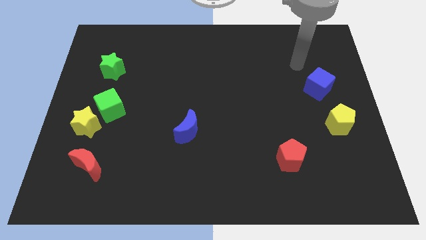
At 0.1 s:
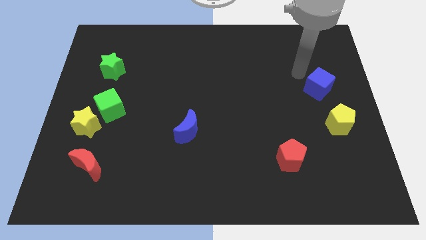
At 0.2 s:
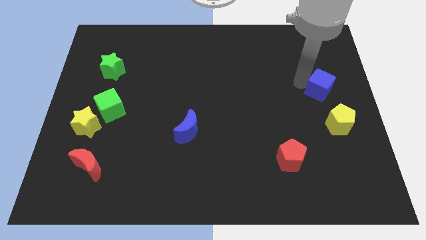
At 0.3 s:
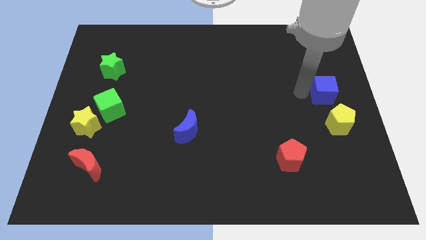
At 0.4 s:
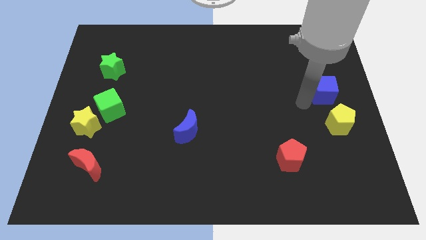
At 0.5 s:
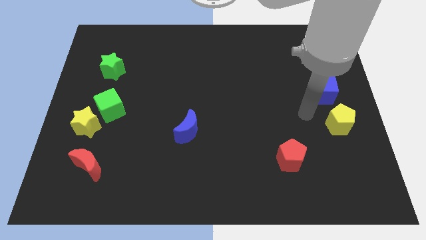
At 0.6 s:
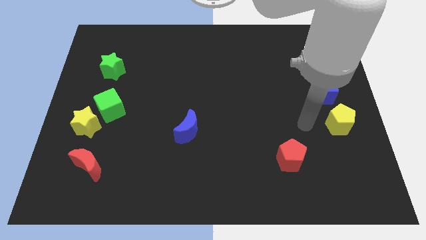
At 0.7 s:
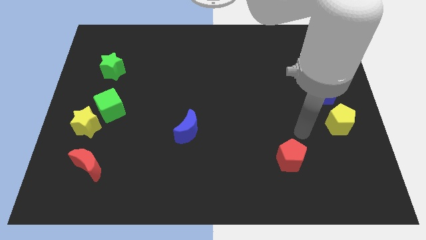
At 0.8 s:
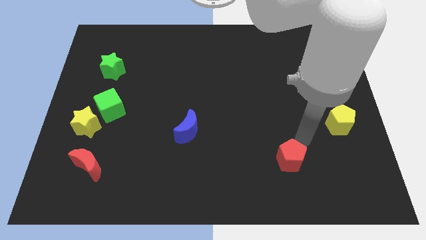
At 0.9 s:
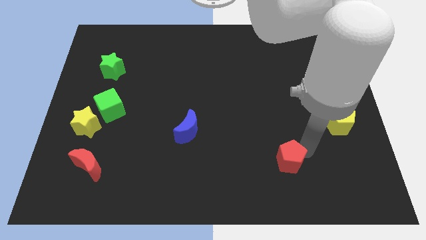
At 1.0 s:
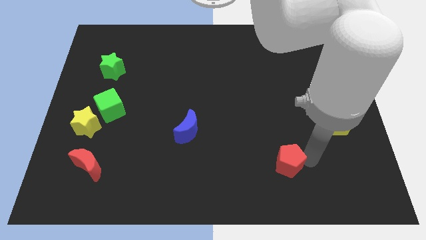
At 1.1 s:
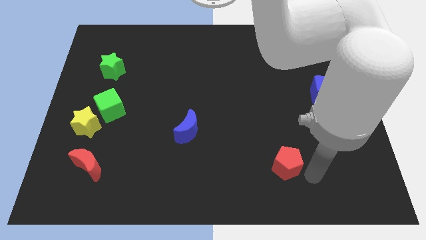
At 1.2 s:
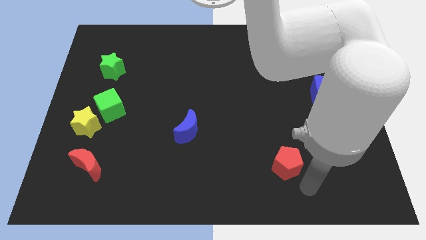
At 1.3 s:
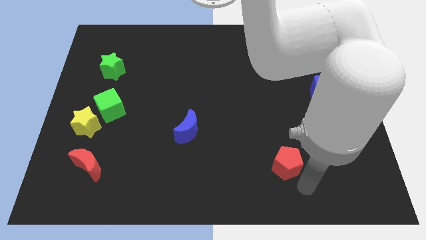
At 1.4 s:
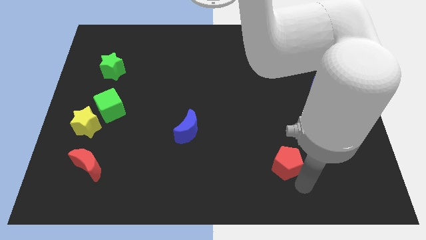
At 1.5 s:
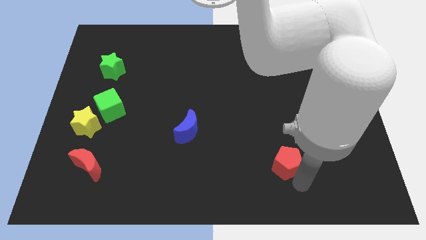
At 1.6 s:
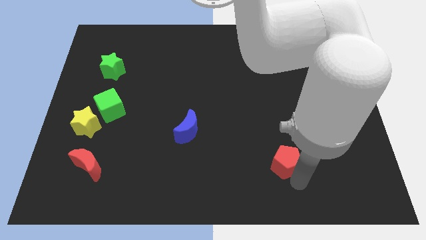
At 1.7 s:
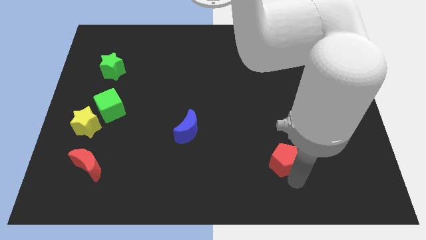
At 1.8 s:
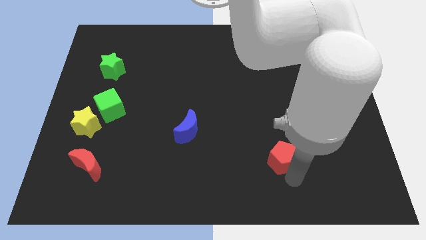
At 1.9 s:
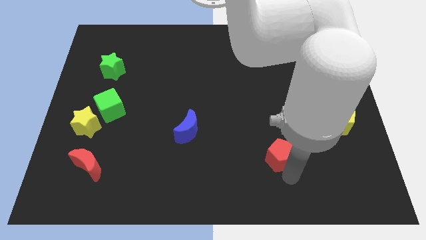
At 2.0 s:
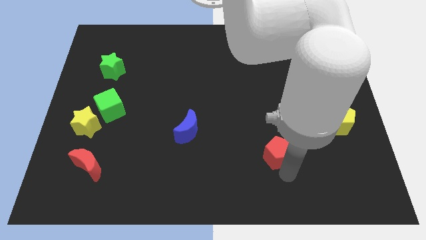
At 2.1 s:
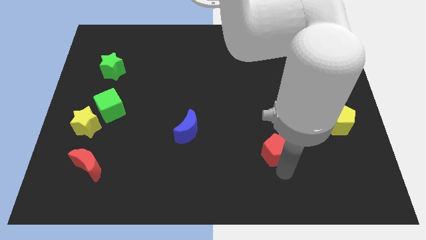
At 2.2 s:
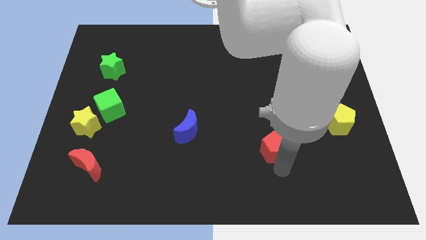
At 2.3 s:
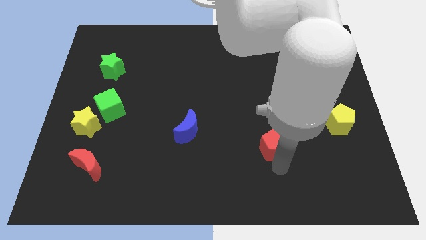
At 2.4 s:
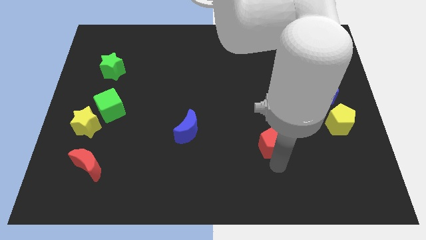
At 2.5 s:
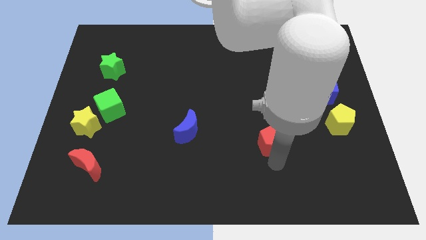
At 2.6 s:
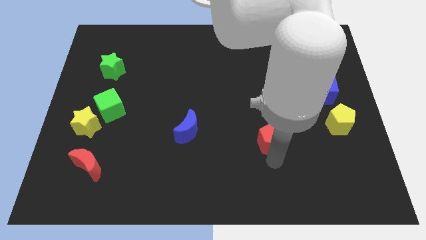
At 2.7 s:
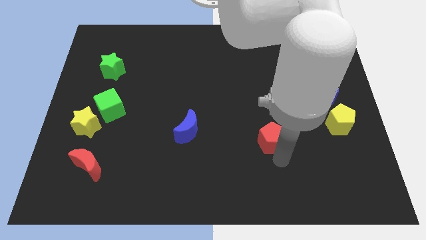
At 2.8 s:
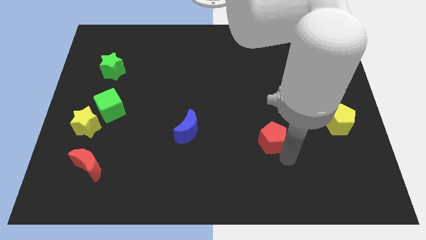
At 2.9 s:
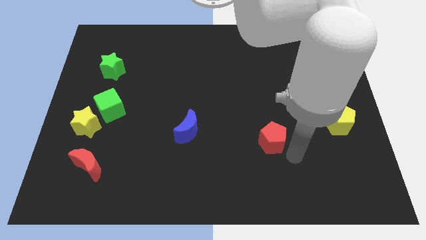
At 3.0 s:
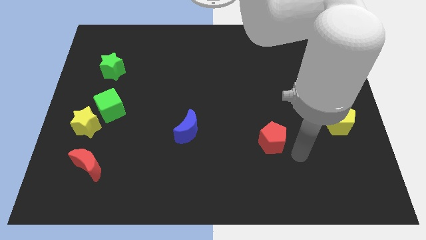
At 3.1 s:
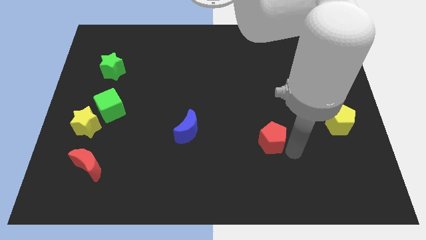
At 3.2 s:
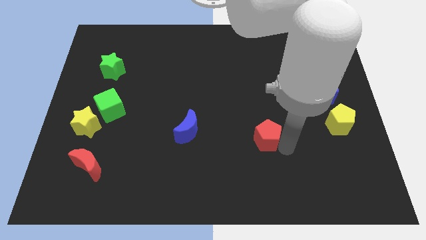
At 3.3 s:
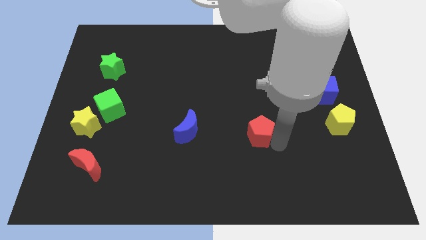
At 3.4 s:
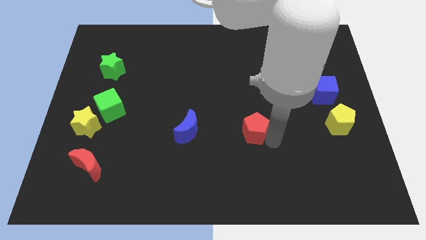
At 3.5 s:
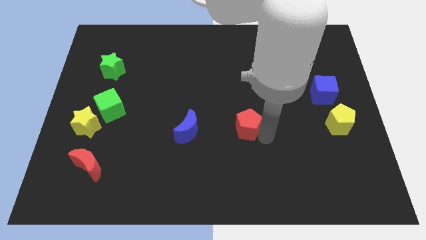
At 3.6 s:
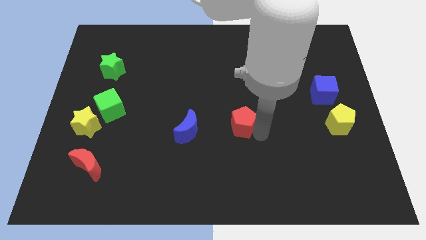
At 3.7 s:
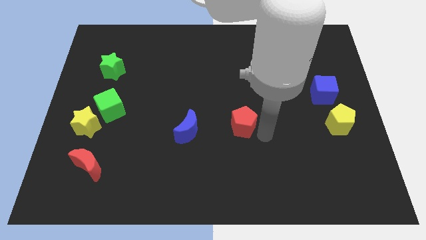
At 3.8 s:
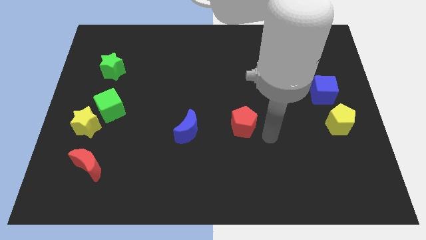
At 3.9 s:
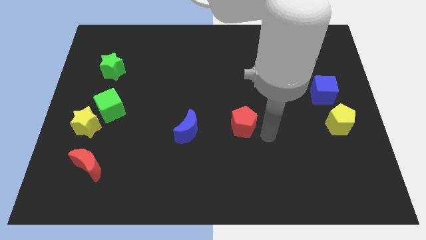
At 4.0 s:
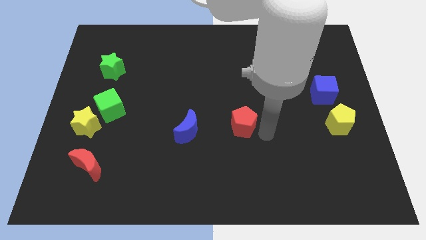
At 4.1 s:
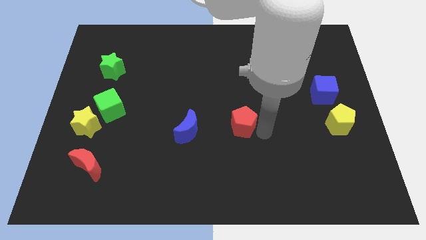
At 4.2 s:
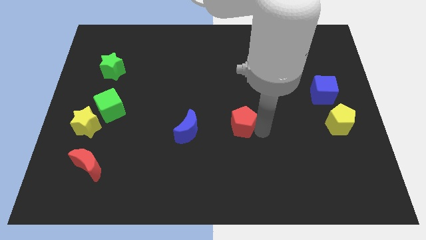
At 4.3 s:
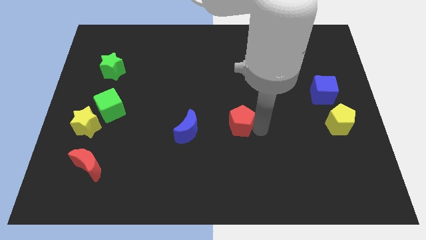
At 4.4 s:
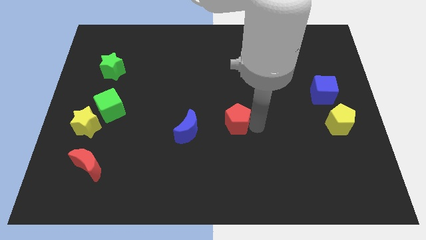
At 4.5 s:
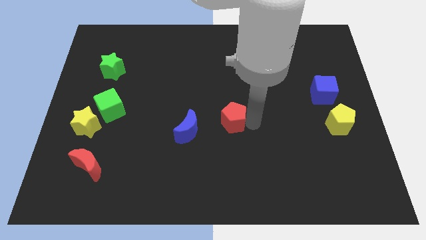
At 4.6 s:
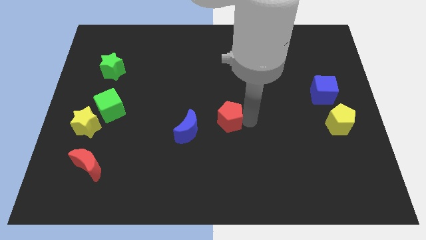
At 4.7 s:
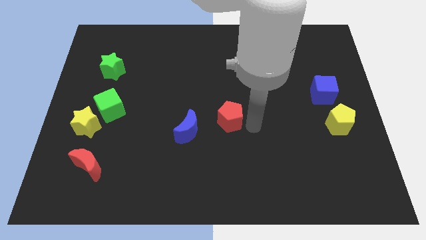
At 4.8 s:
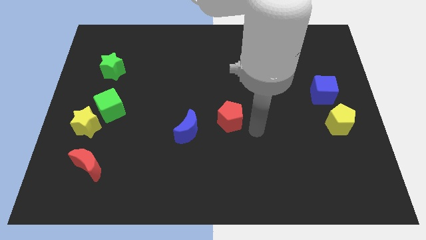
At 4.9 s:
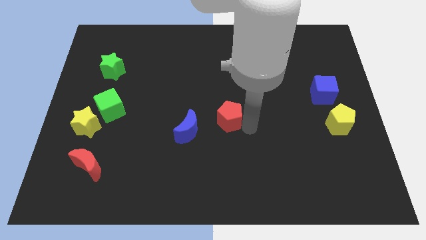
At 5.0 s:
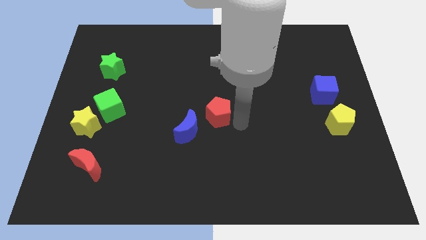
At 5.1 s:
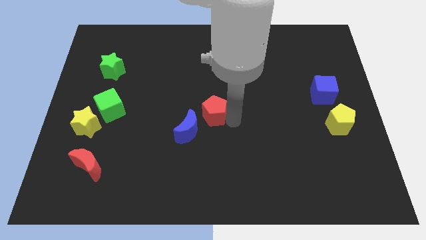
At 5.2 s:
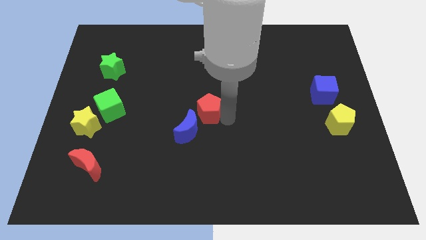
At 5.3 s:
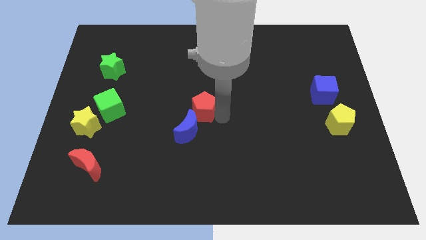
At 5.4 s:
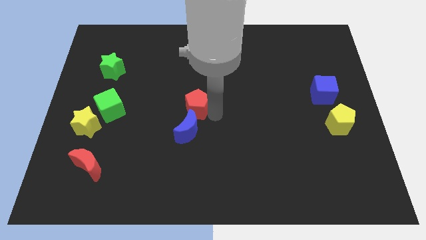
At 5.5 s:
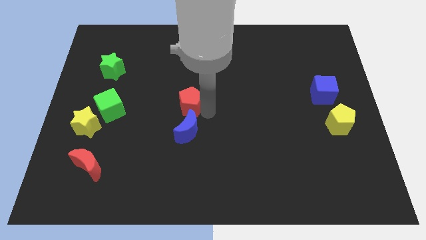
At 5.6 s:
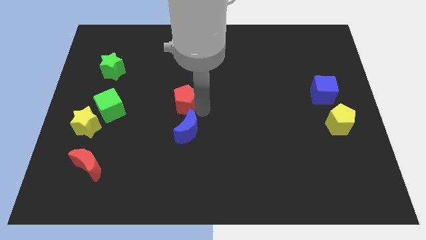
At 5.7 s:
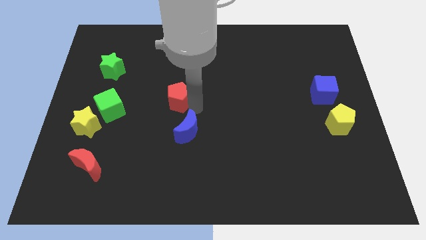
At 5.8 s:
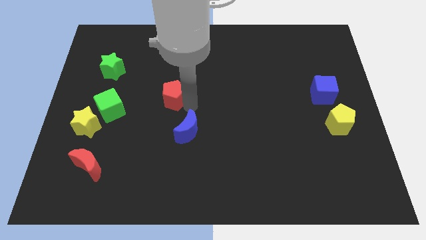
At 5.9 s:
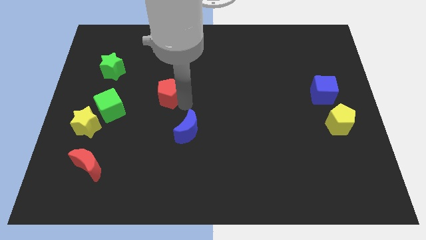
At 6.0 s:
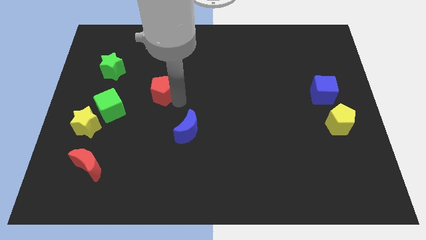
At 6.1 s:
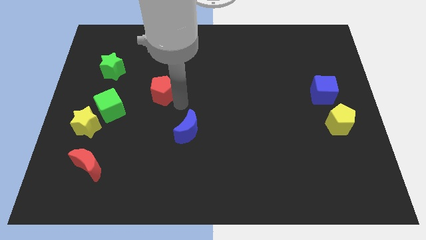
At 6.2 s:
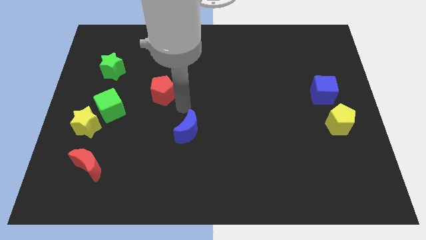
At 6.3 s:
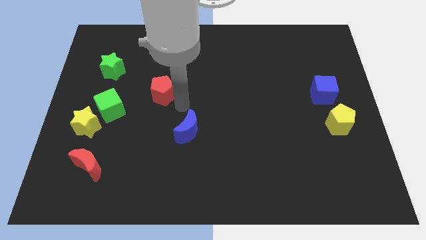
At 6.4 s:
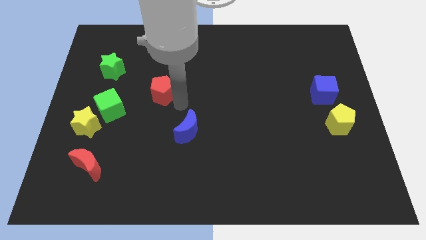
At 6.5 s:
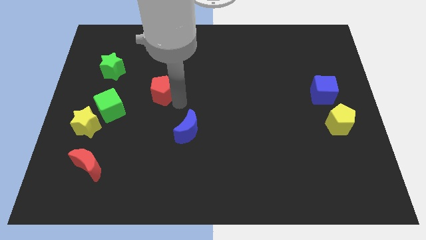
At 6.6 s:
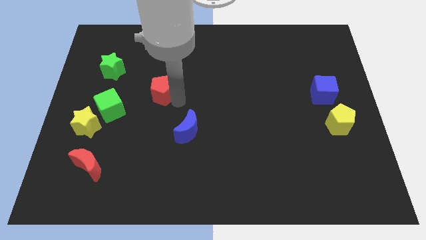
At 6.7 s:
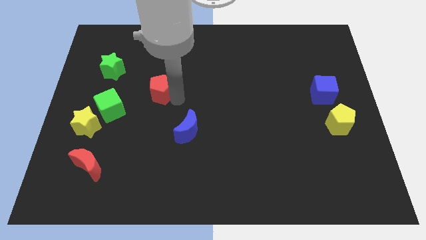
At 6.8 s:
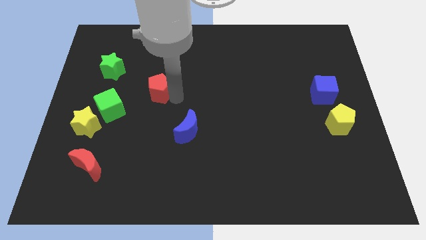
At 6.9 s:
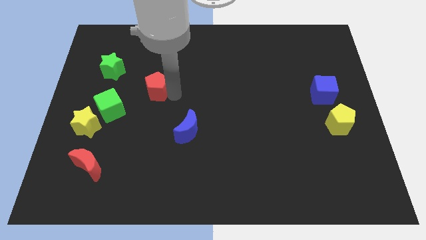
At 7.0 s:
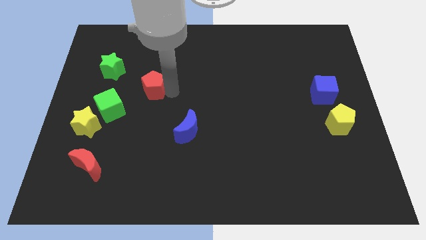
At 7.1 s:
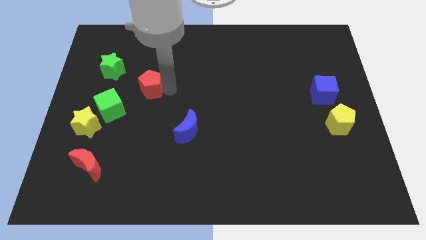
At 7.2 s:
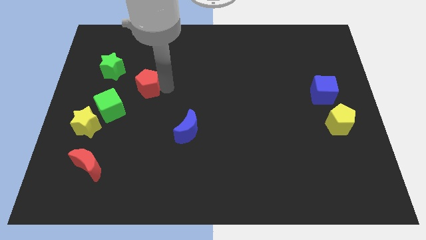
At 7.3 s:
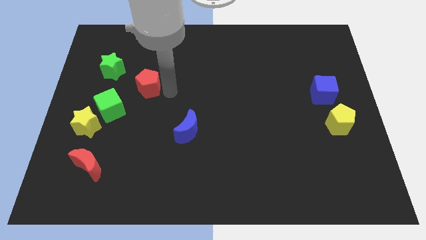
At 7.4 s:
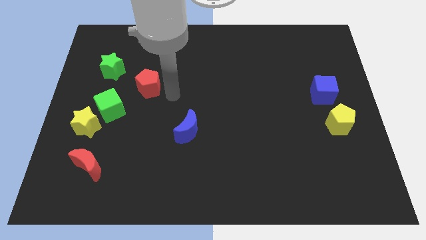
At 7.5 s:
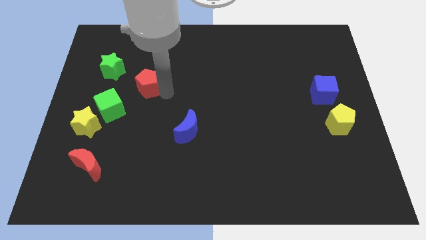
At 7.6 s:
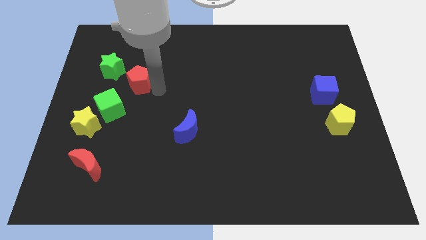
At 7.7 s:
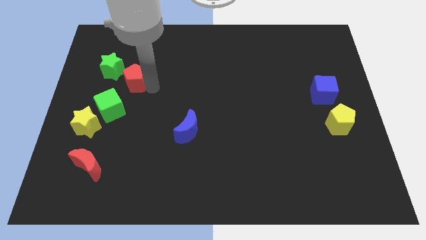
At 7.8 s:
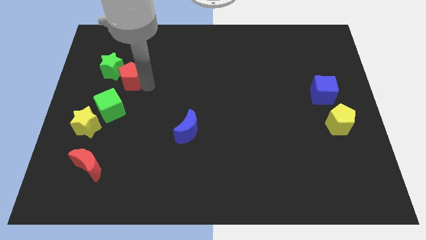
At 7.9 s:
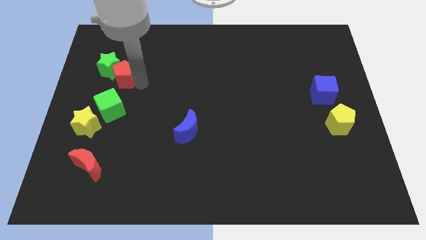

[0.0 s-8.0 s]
slide the red pentagon towards the green star

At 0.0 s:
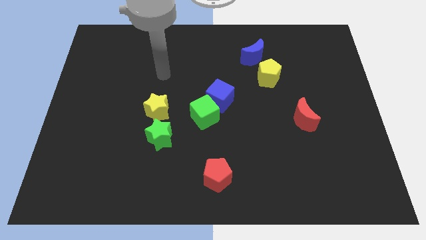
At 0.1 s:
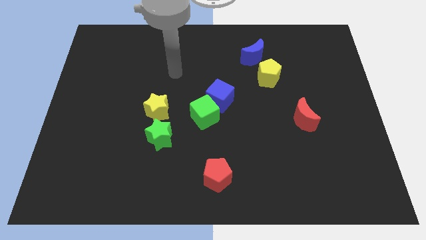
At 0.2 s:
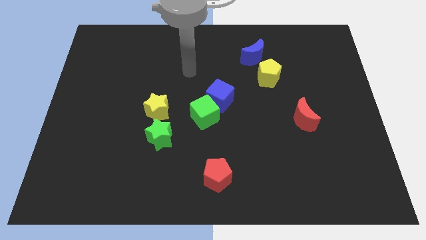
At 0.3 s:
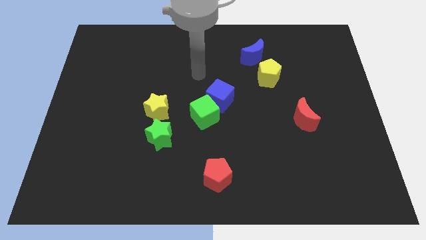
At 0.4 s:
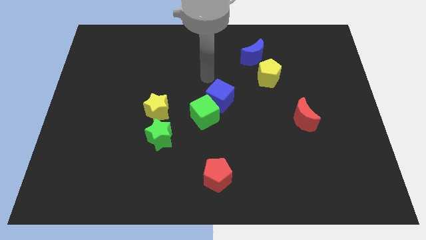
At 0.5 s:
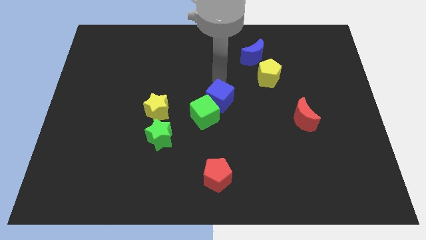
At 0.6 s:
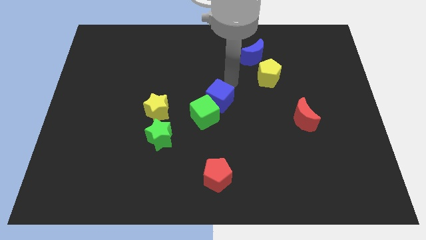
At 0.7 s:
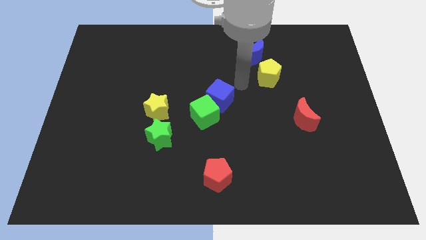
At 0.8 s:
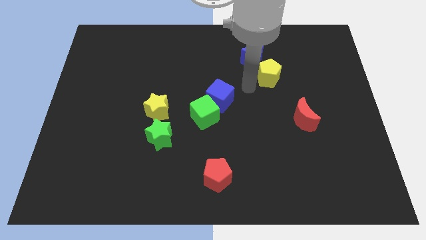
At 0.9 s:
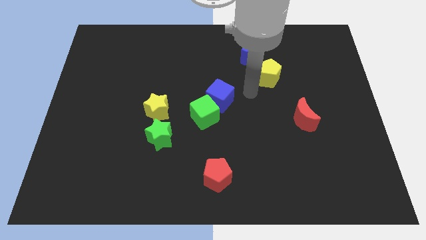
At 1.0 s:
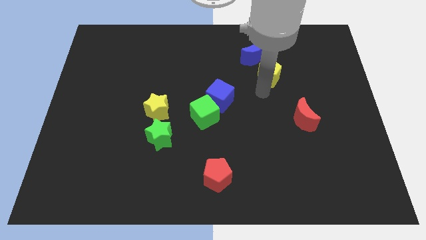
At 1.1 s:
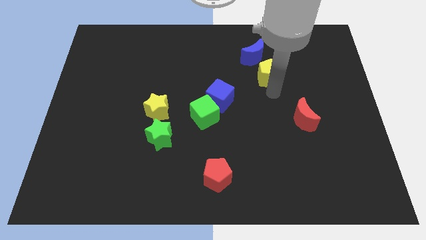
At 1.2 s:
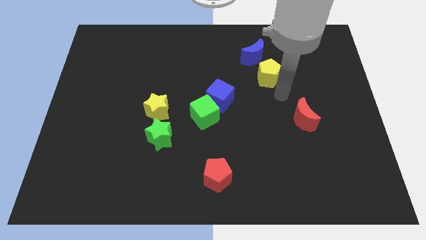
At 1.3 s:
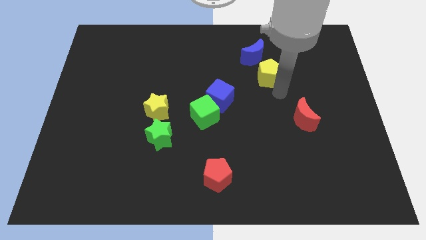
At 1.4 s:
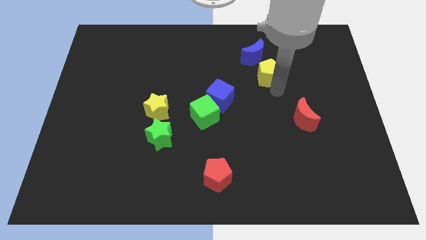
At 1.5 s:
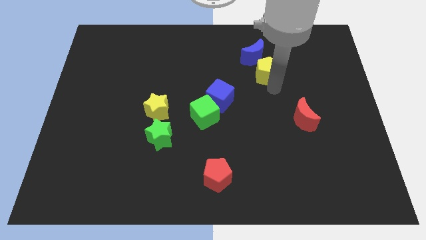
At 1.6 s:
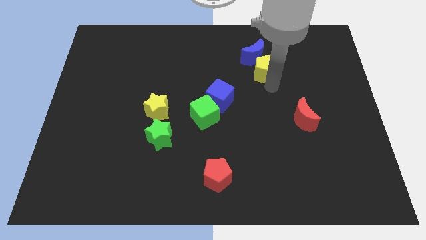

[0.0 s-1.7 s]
push the yellow pentagon close to the blue moon
